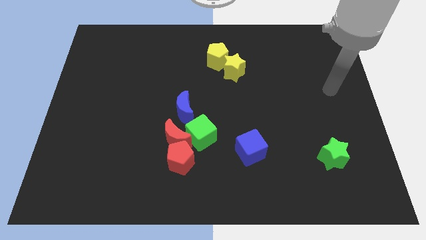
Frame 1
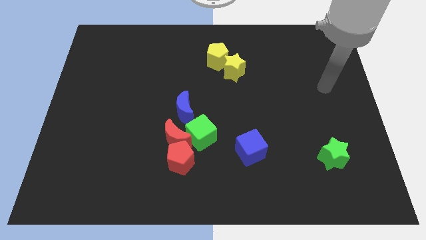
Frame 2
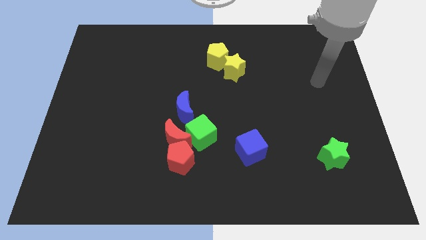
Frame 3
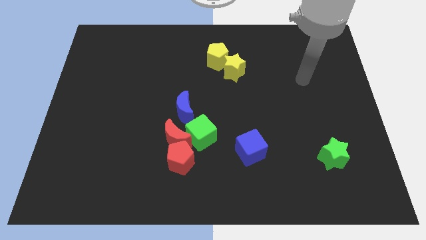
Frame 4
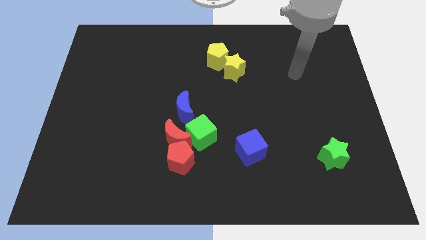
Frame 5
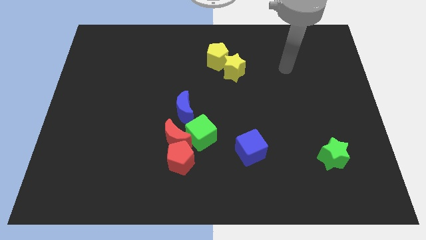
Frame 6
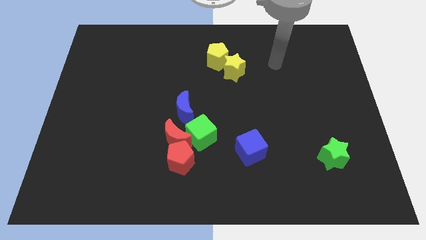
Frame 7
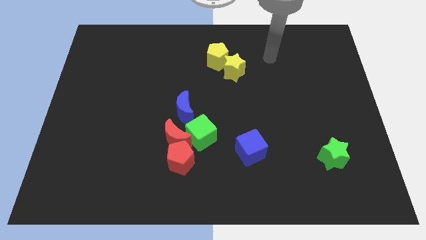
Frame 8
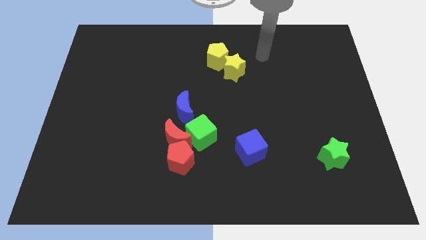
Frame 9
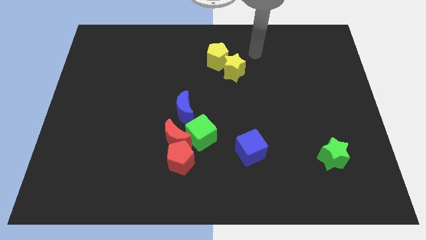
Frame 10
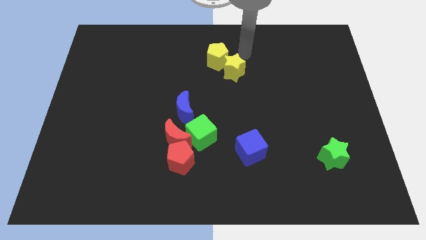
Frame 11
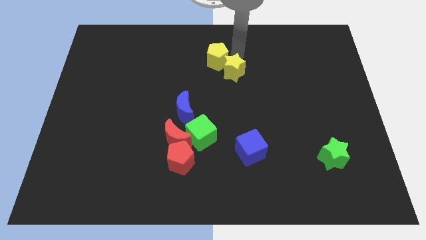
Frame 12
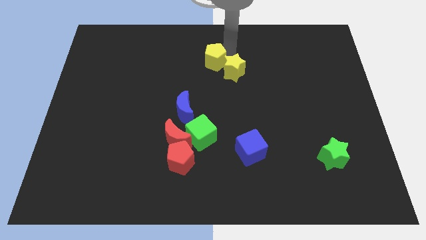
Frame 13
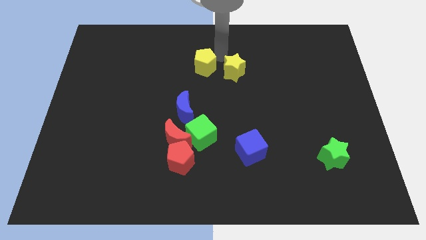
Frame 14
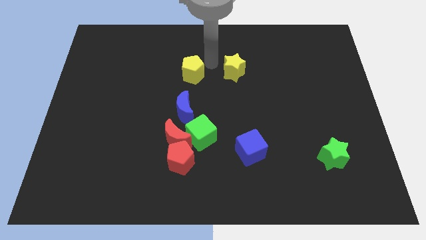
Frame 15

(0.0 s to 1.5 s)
move the yellow star away from the yellow pentagon

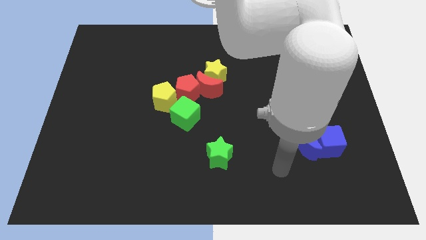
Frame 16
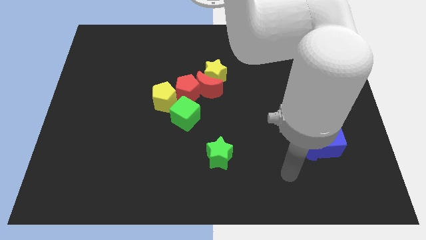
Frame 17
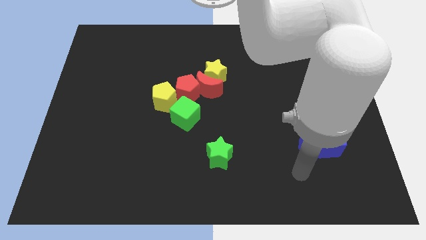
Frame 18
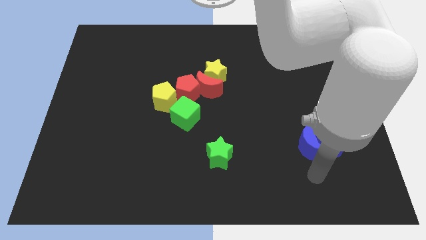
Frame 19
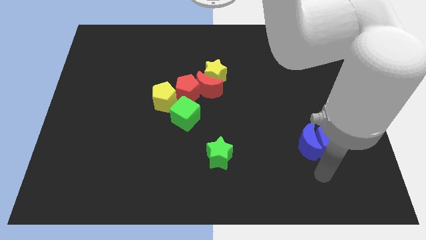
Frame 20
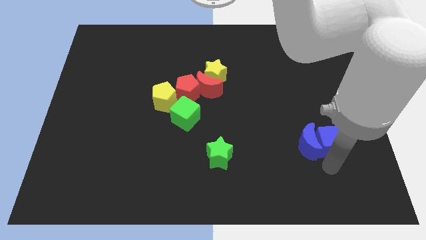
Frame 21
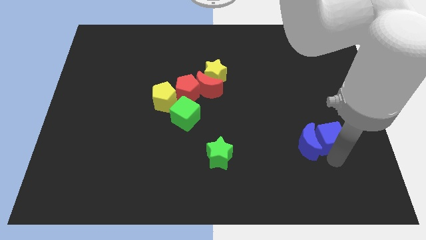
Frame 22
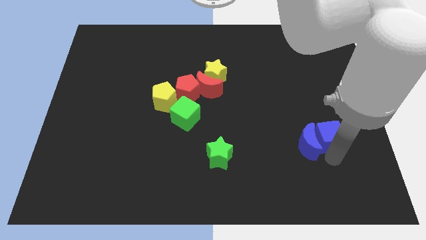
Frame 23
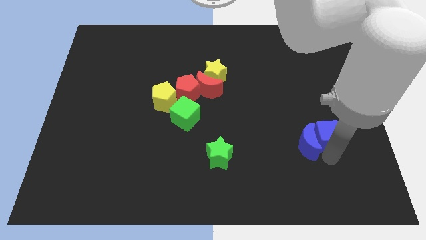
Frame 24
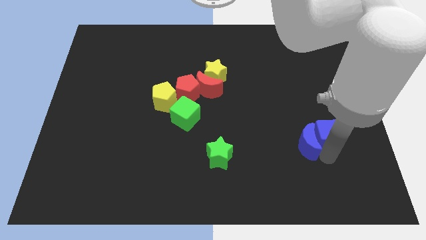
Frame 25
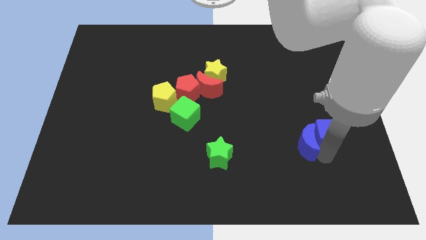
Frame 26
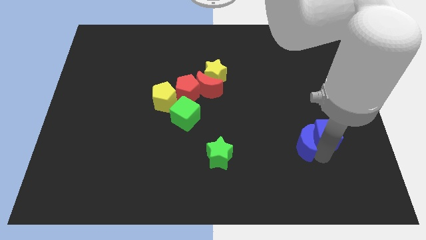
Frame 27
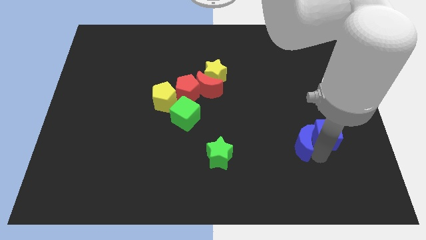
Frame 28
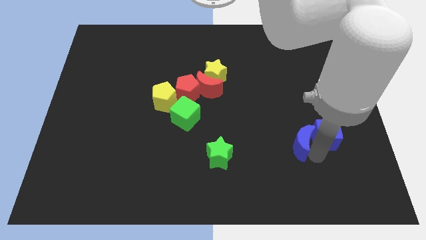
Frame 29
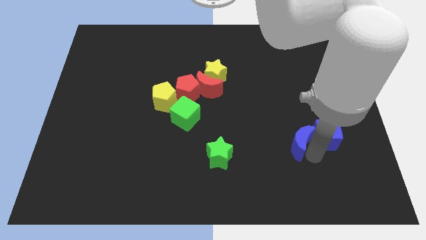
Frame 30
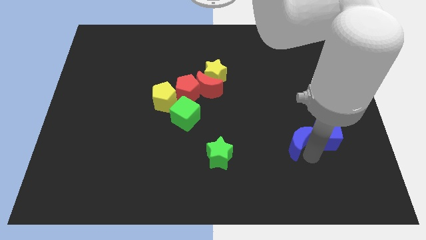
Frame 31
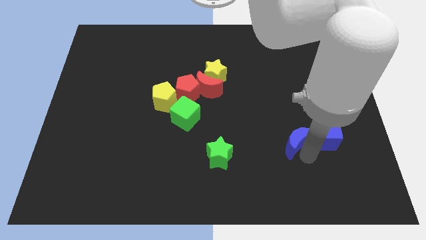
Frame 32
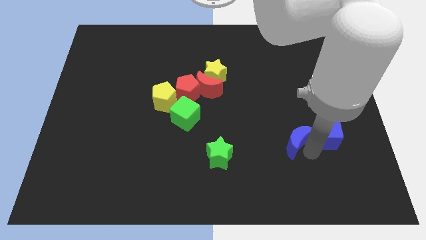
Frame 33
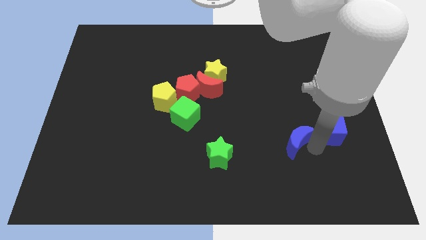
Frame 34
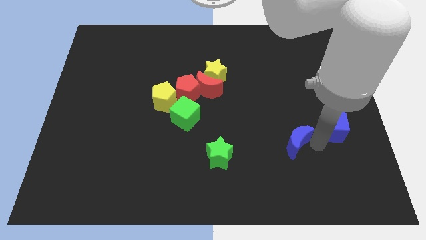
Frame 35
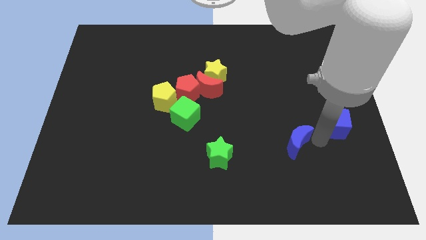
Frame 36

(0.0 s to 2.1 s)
separate the blue moon from the blue cube

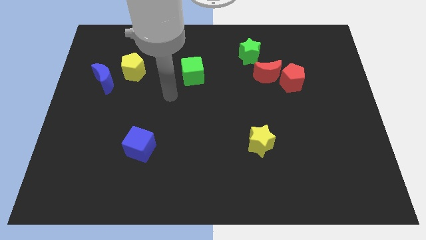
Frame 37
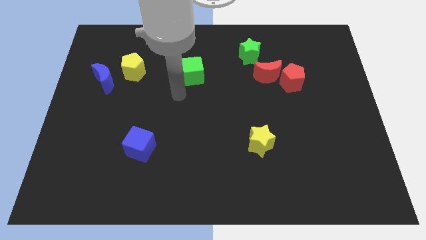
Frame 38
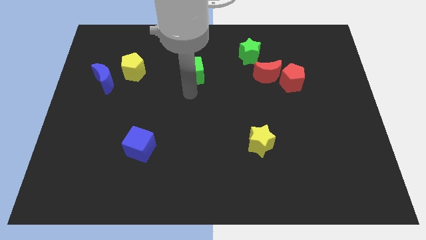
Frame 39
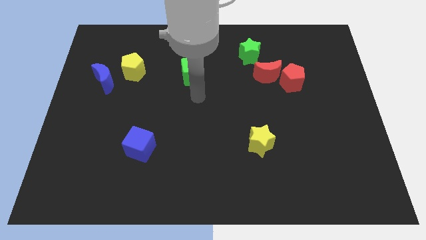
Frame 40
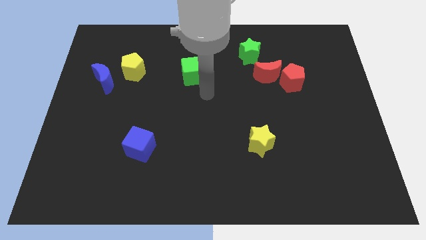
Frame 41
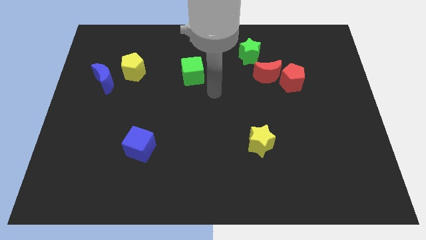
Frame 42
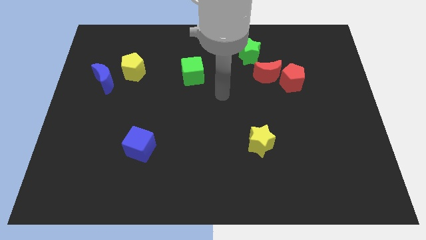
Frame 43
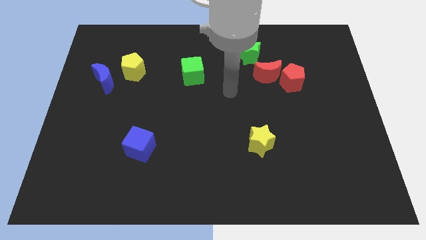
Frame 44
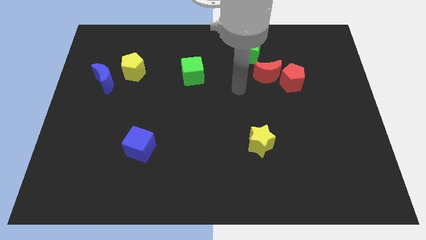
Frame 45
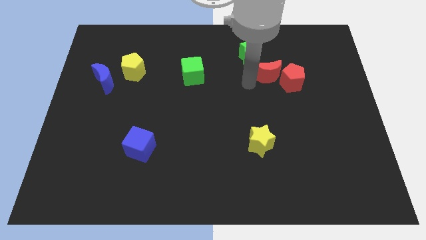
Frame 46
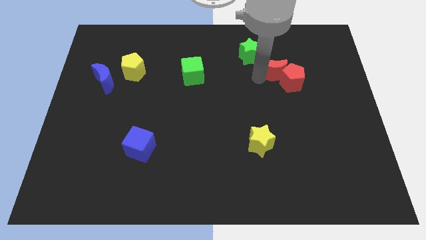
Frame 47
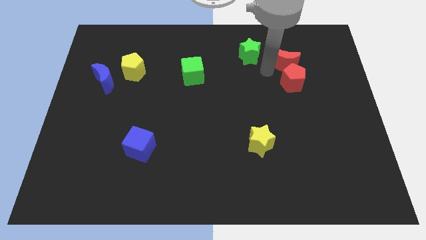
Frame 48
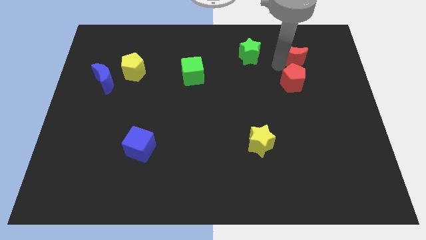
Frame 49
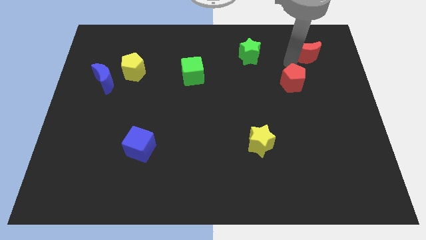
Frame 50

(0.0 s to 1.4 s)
pull the red pentagon apart from the red moon

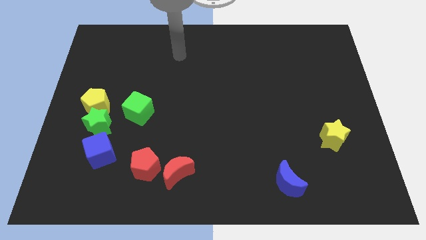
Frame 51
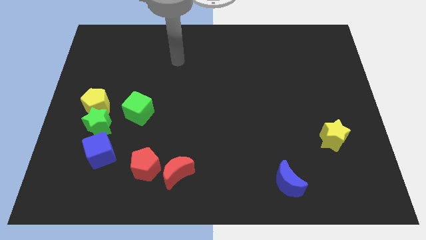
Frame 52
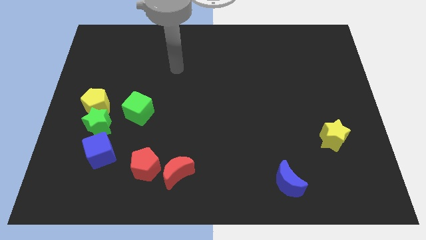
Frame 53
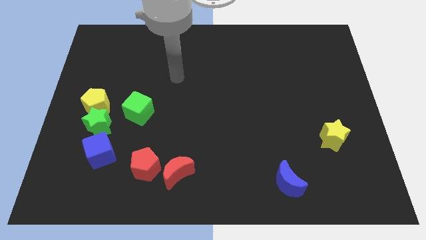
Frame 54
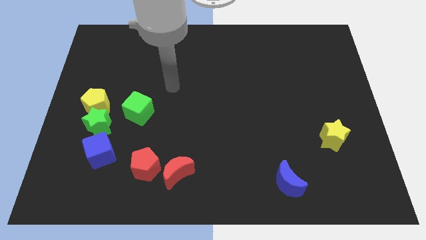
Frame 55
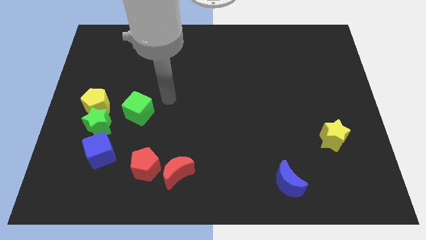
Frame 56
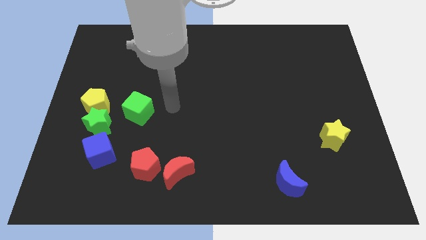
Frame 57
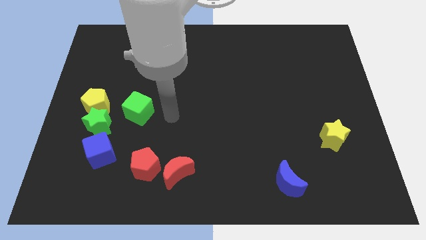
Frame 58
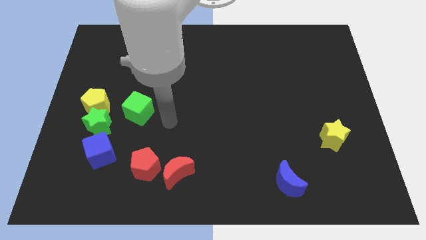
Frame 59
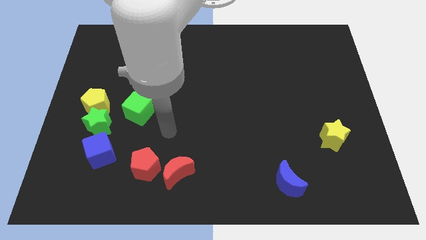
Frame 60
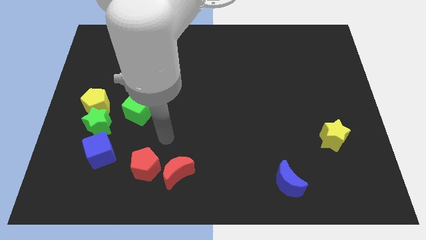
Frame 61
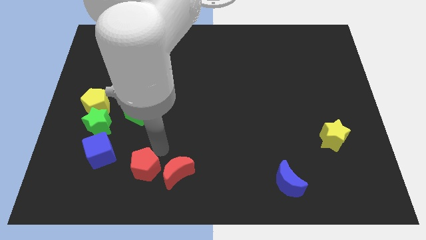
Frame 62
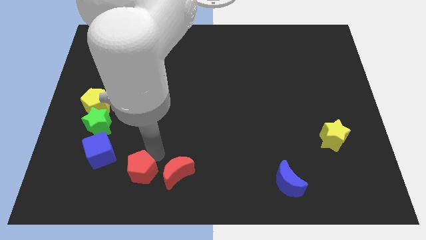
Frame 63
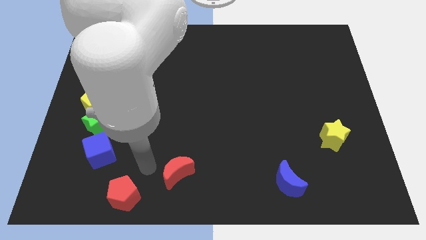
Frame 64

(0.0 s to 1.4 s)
pull the red moon apart from the red pentagon

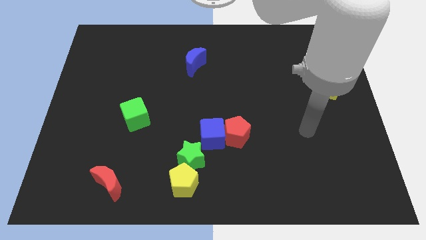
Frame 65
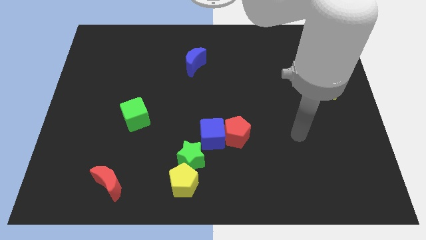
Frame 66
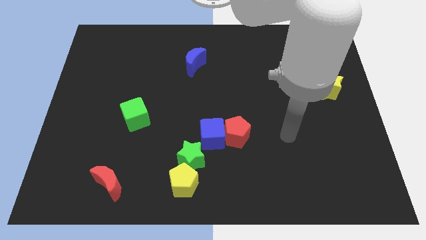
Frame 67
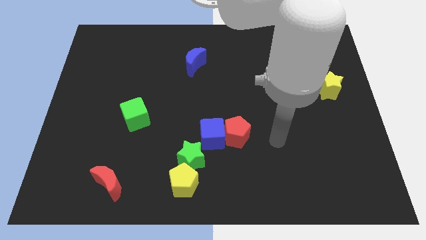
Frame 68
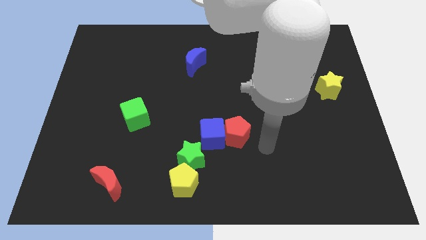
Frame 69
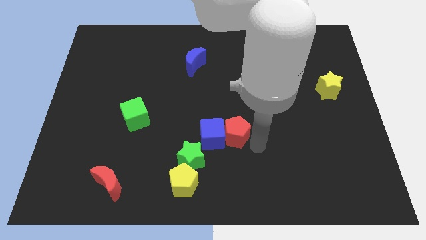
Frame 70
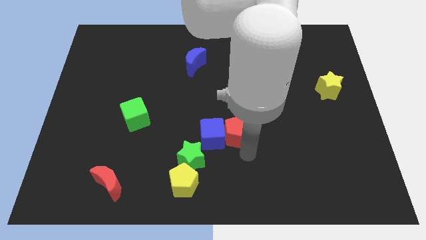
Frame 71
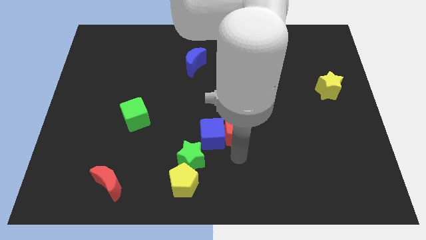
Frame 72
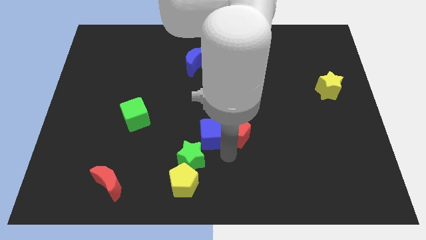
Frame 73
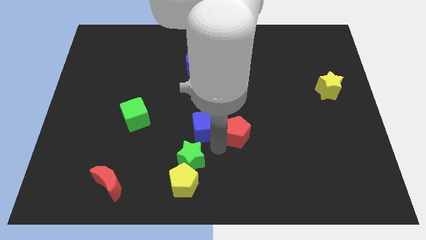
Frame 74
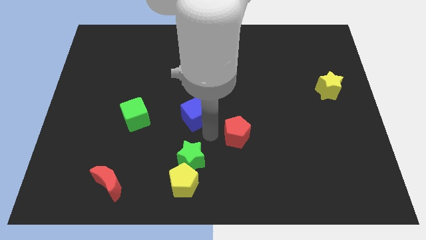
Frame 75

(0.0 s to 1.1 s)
move the red pentagon away from the blue cube

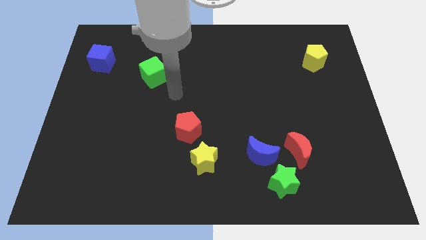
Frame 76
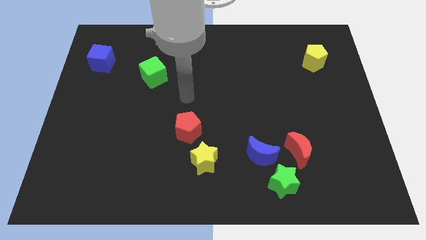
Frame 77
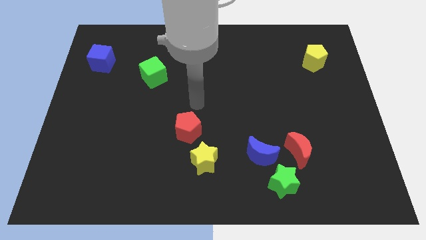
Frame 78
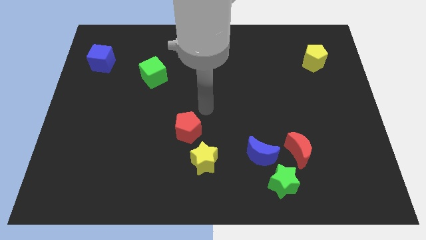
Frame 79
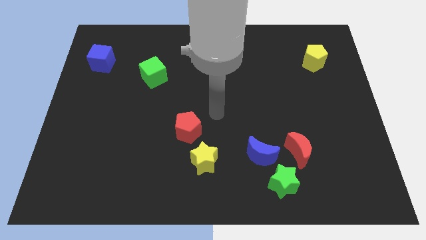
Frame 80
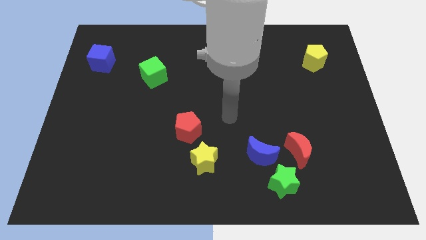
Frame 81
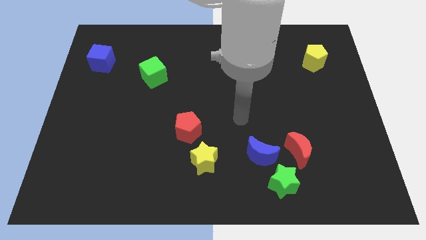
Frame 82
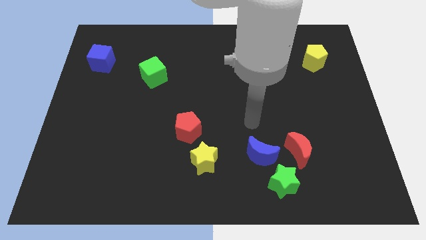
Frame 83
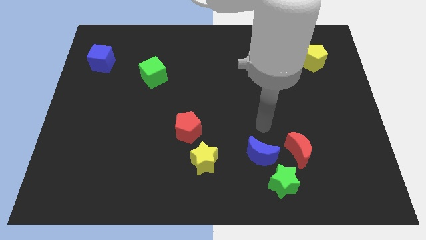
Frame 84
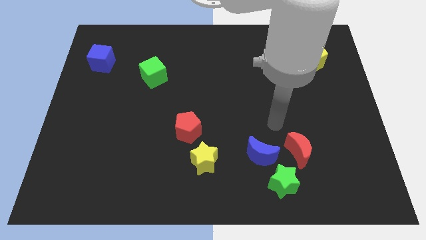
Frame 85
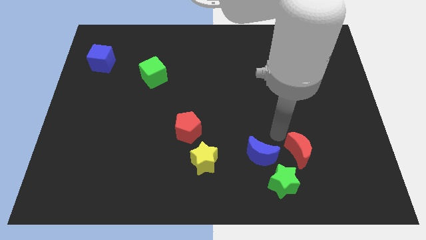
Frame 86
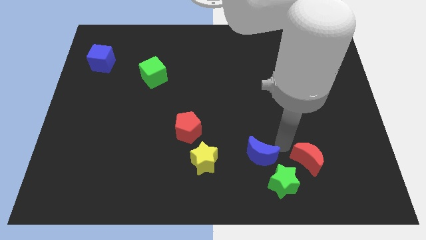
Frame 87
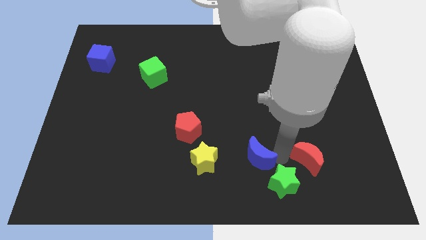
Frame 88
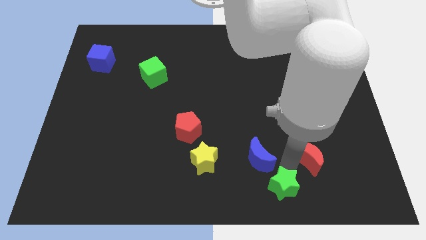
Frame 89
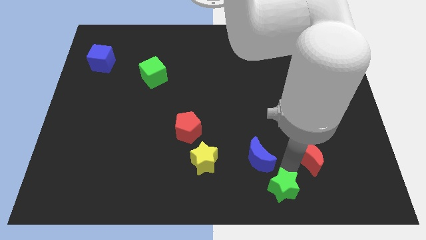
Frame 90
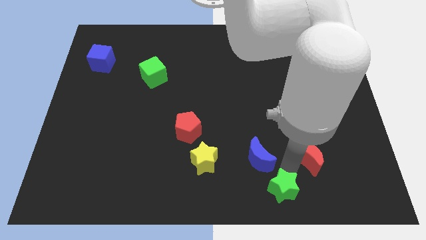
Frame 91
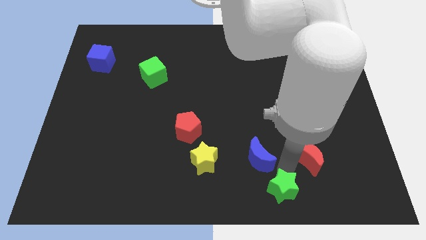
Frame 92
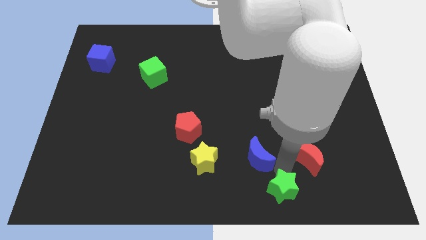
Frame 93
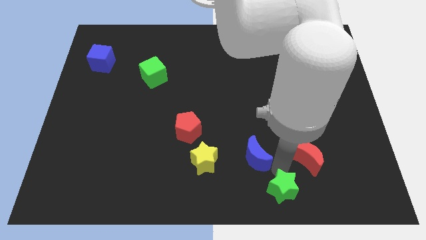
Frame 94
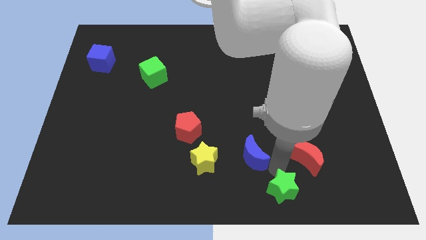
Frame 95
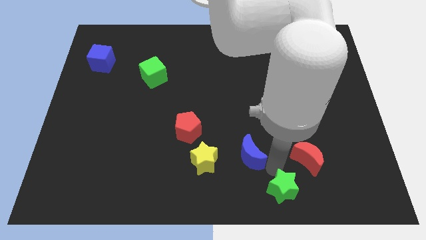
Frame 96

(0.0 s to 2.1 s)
separate the blue moon from the green star and red moon
